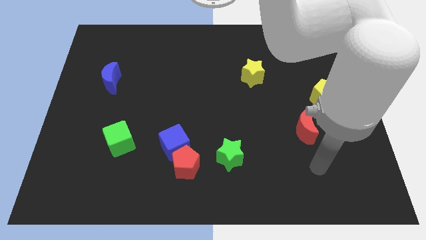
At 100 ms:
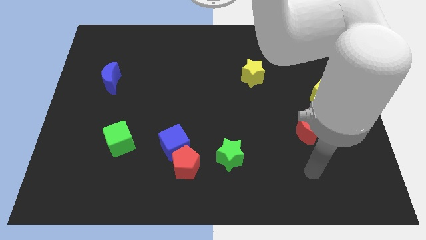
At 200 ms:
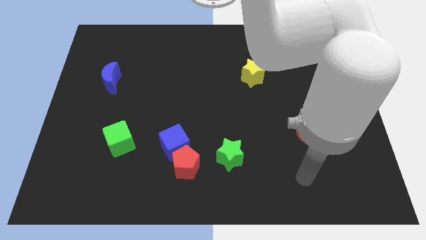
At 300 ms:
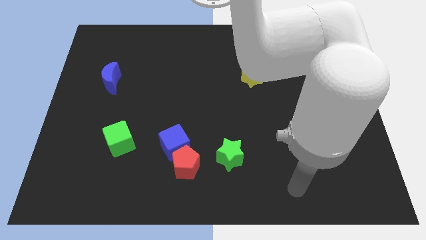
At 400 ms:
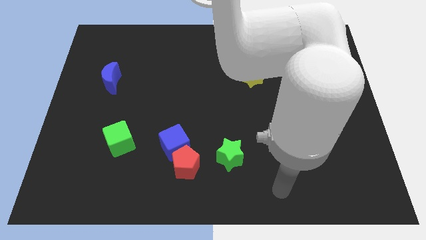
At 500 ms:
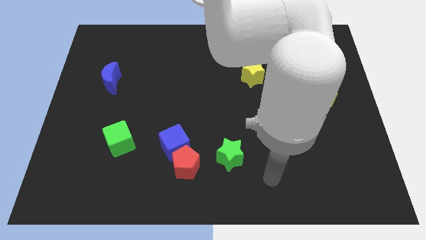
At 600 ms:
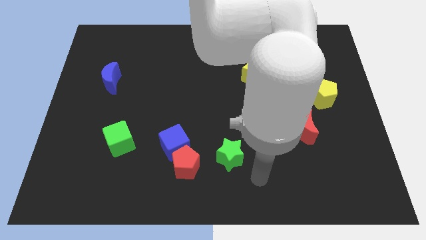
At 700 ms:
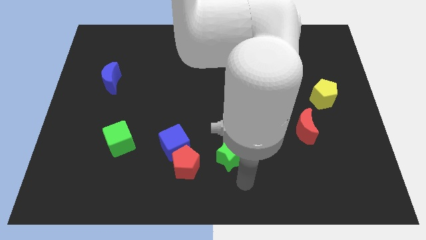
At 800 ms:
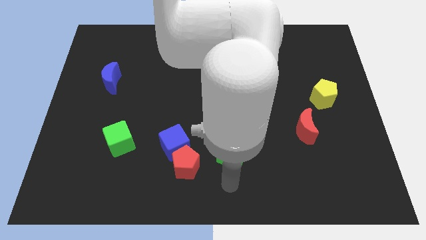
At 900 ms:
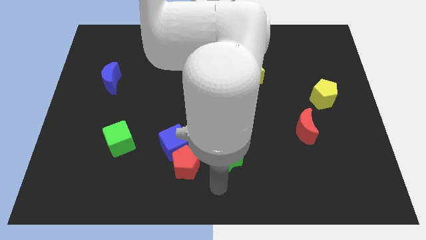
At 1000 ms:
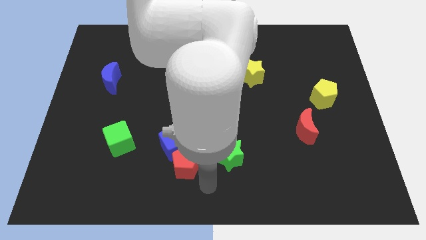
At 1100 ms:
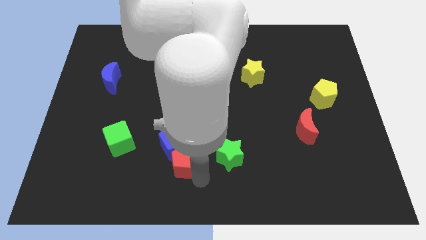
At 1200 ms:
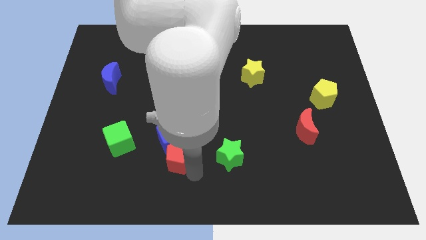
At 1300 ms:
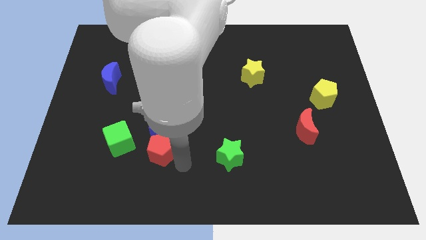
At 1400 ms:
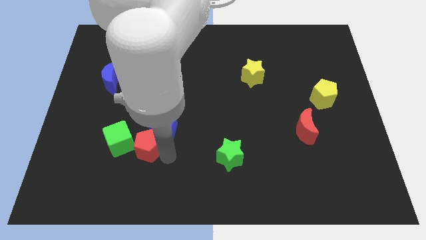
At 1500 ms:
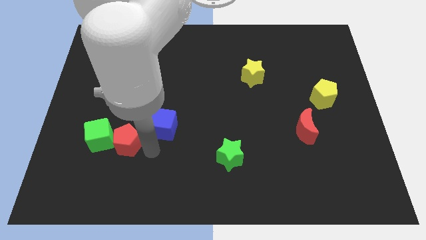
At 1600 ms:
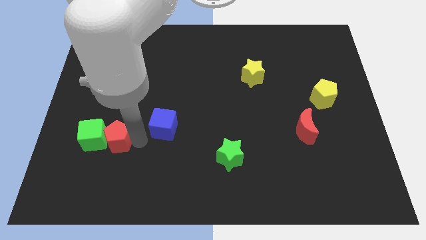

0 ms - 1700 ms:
pull the blue cube apart from the red pentagon

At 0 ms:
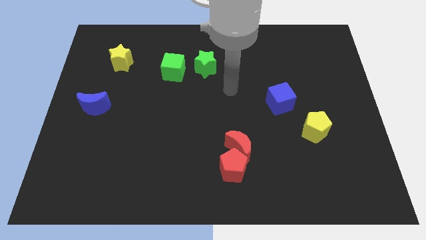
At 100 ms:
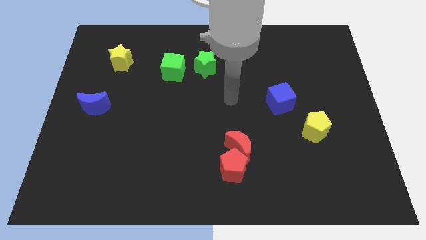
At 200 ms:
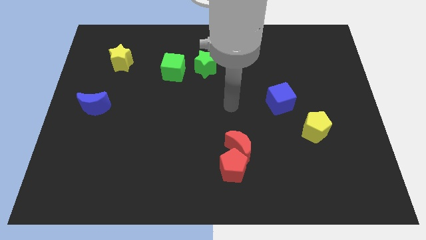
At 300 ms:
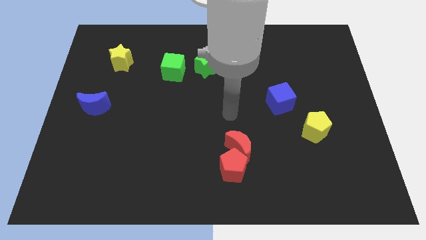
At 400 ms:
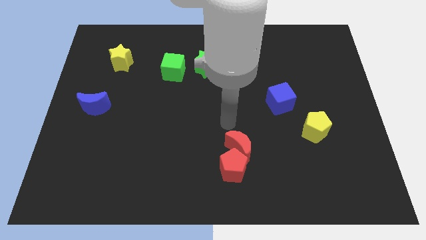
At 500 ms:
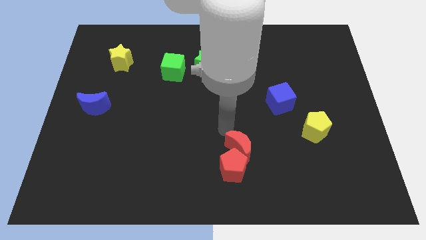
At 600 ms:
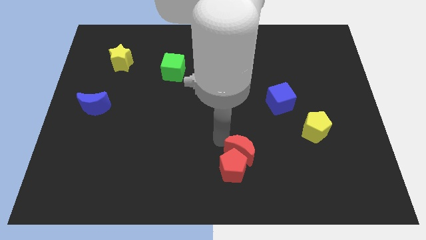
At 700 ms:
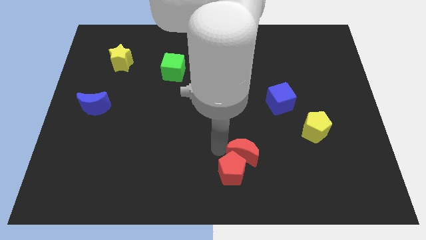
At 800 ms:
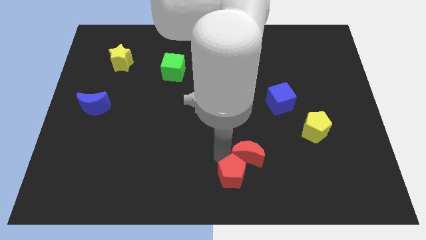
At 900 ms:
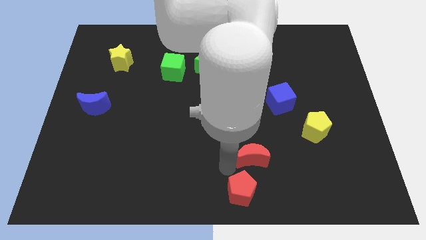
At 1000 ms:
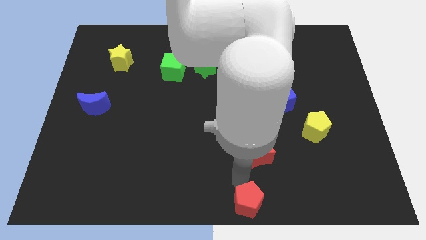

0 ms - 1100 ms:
move the red moon away from the red pentagon

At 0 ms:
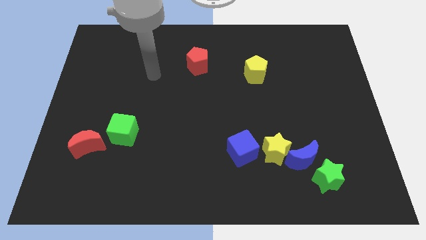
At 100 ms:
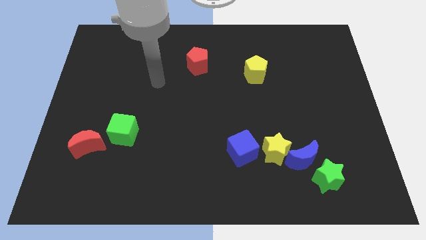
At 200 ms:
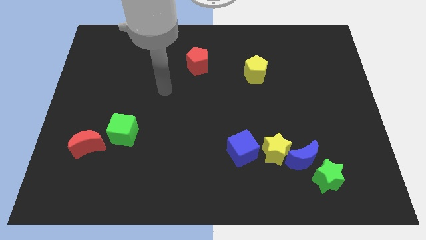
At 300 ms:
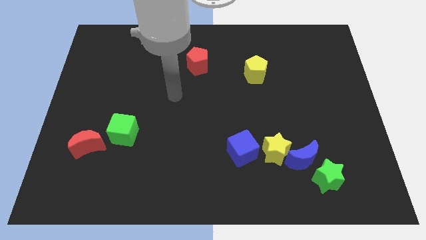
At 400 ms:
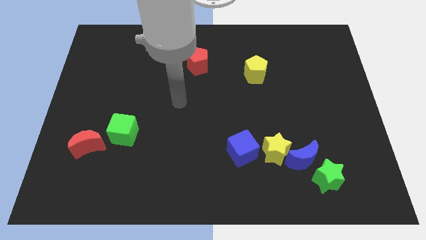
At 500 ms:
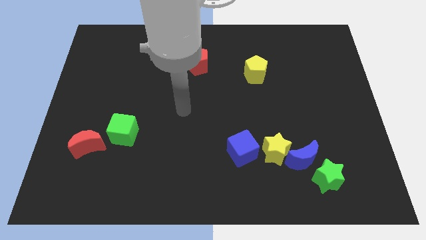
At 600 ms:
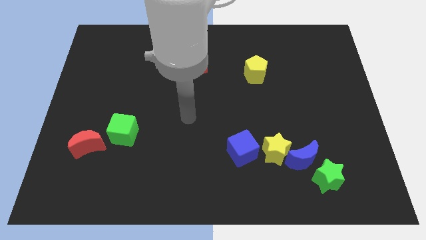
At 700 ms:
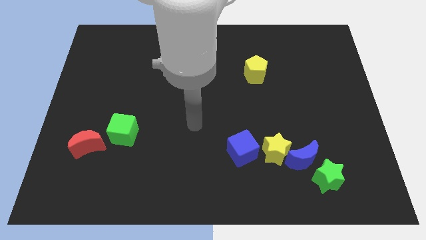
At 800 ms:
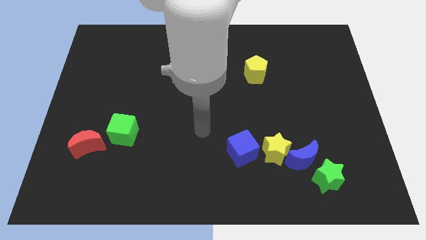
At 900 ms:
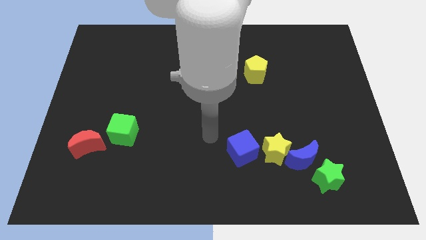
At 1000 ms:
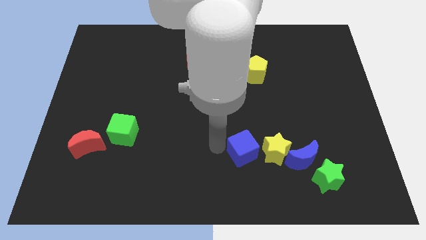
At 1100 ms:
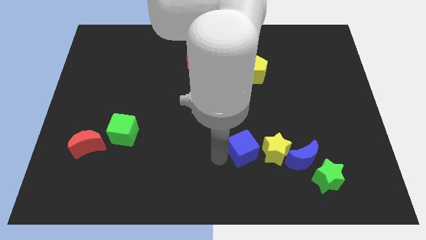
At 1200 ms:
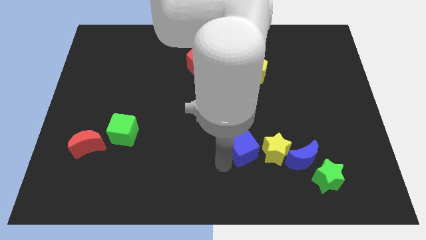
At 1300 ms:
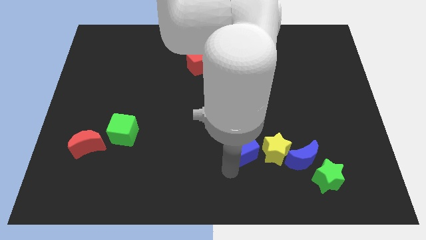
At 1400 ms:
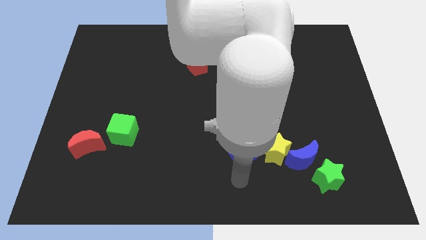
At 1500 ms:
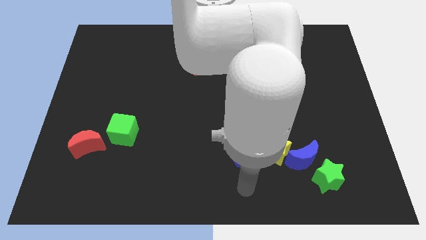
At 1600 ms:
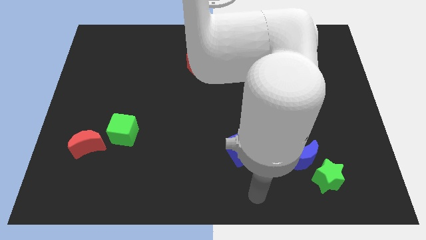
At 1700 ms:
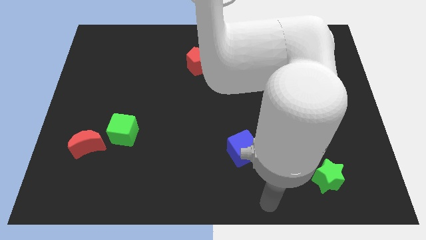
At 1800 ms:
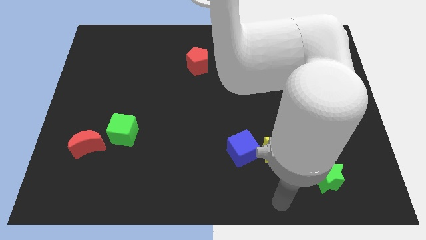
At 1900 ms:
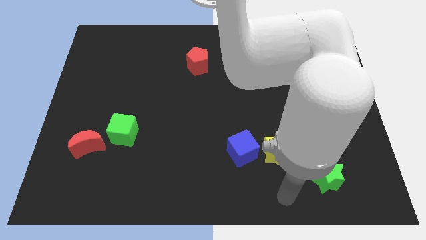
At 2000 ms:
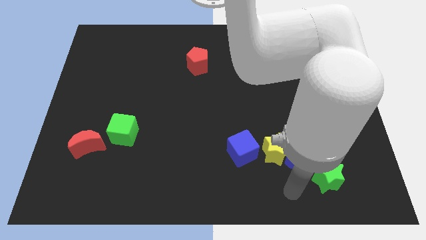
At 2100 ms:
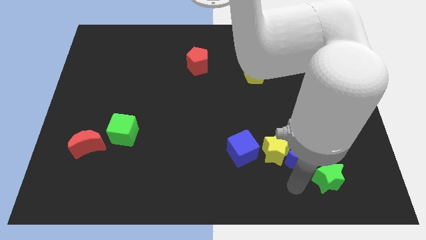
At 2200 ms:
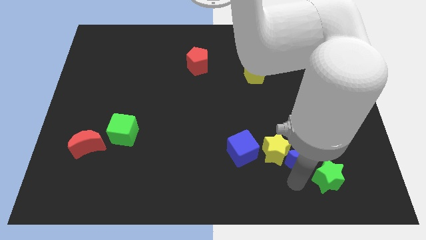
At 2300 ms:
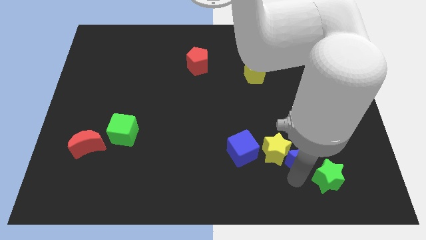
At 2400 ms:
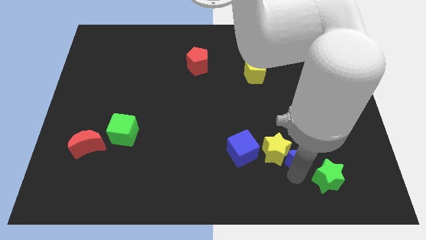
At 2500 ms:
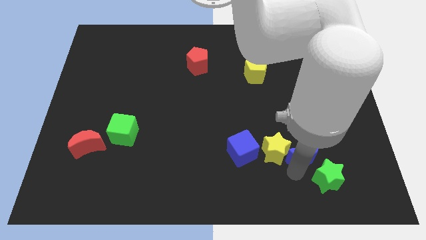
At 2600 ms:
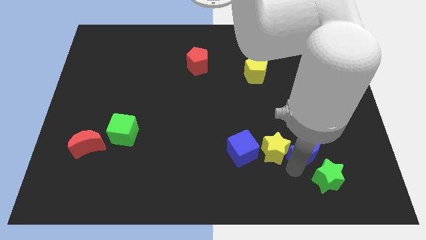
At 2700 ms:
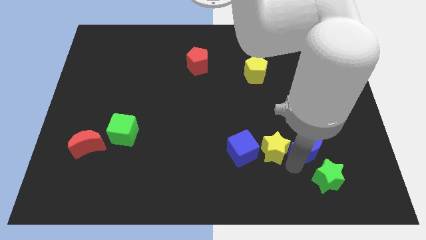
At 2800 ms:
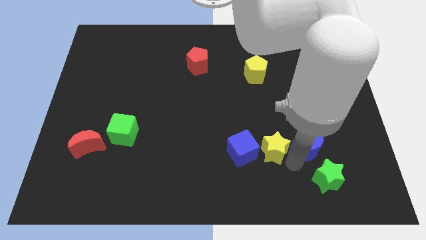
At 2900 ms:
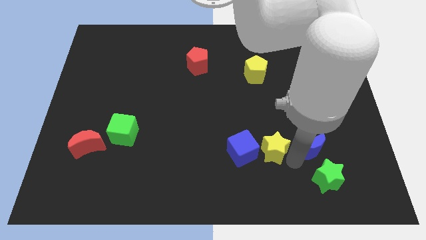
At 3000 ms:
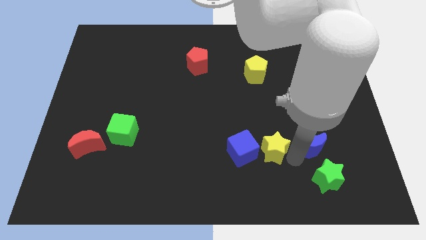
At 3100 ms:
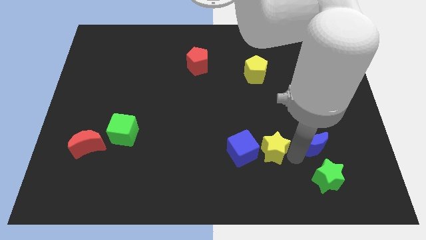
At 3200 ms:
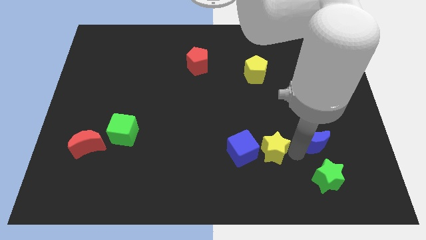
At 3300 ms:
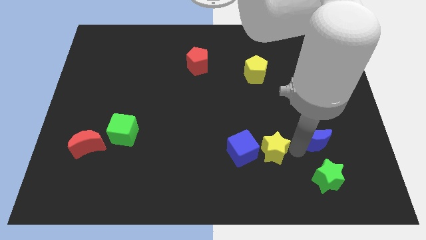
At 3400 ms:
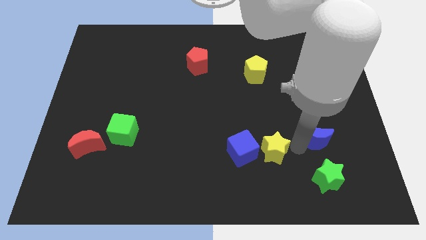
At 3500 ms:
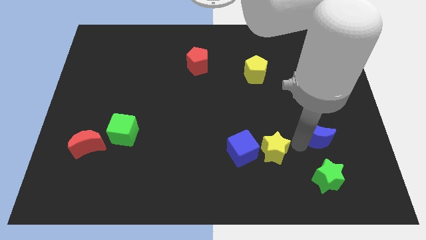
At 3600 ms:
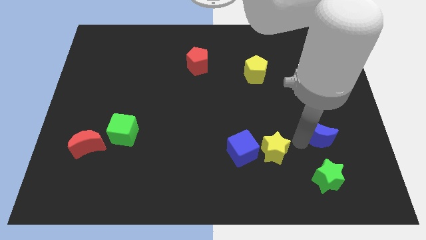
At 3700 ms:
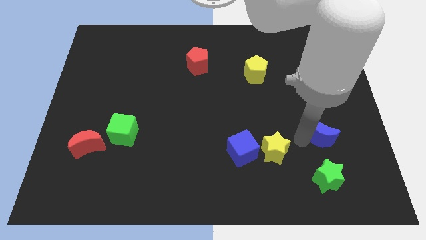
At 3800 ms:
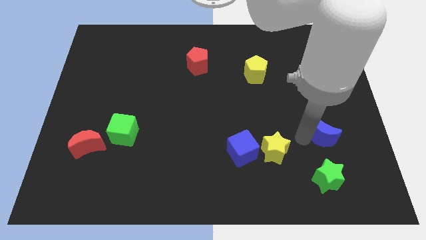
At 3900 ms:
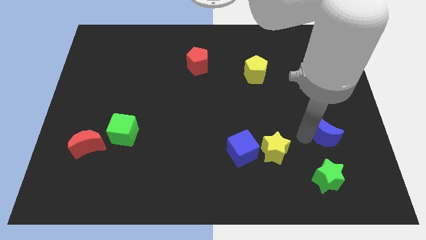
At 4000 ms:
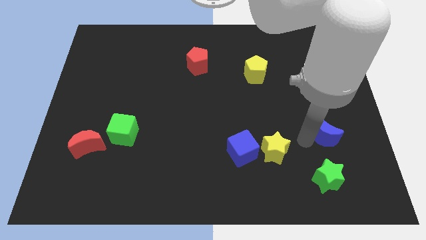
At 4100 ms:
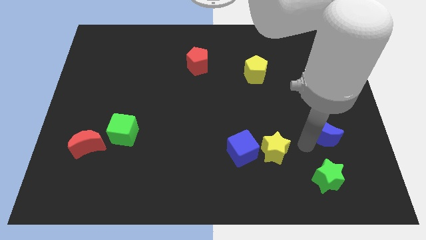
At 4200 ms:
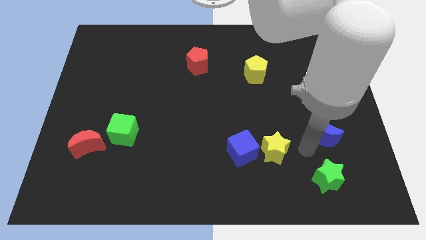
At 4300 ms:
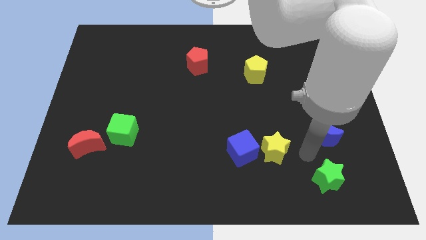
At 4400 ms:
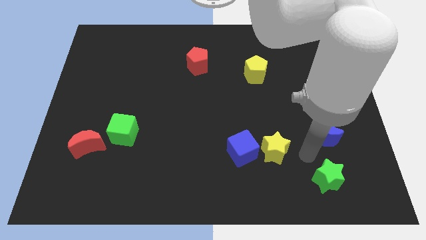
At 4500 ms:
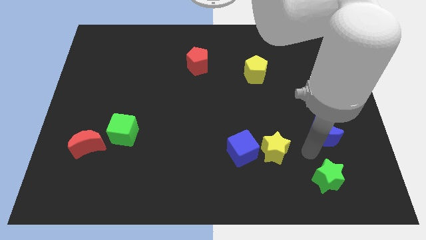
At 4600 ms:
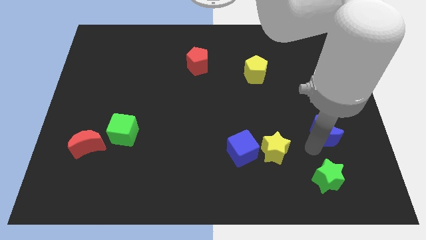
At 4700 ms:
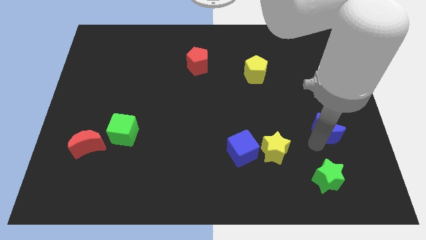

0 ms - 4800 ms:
move the blue moon away from the yellow star and green star

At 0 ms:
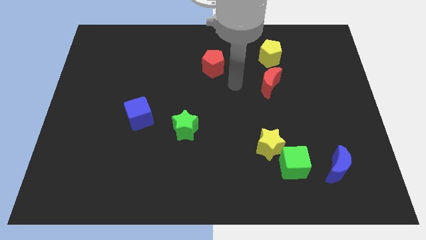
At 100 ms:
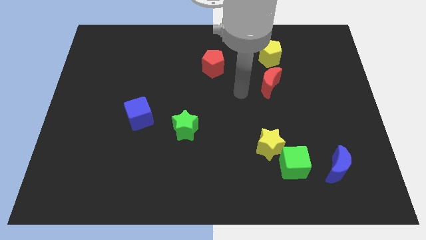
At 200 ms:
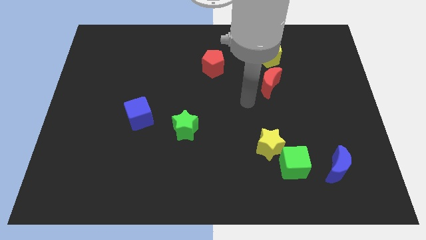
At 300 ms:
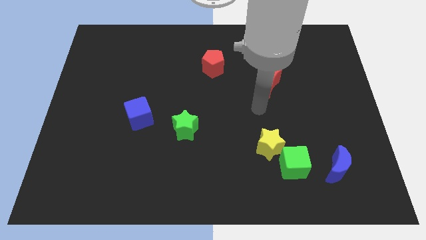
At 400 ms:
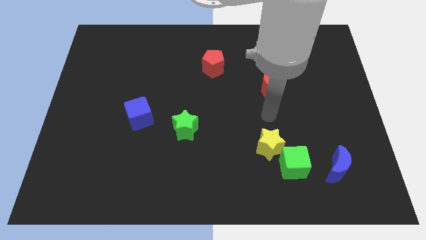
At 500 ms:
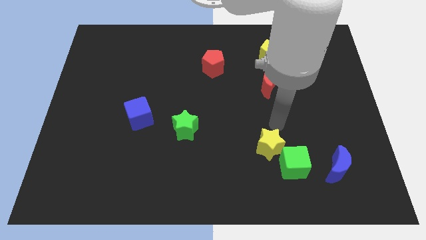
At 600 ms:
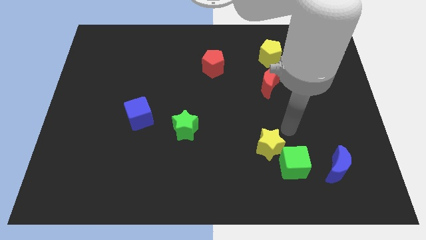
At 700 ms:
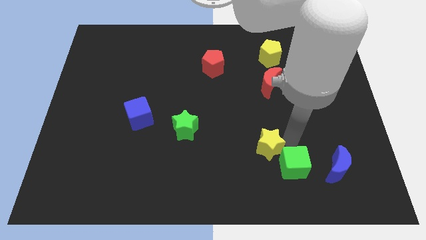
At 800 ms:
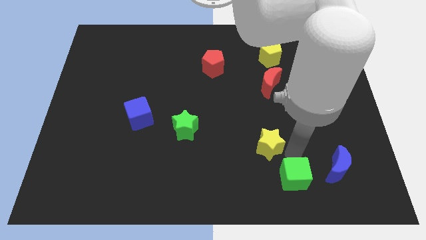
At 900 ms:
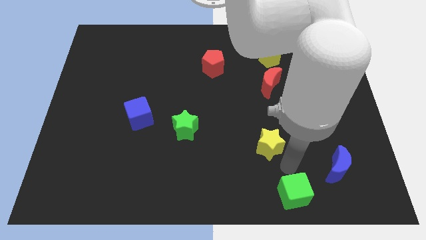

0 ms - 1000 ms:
separate the yellow star from the green cube

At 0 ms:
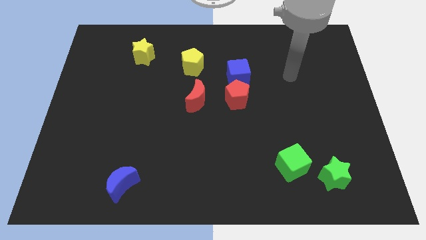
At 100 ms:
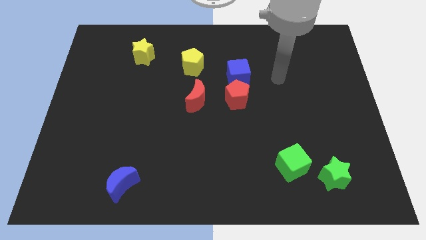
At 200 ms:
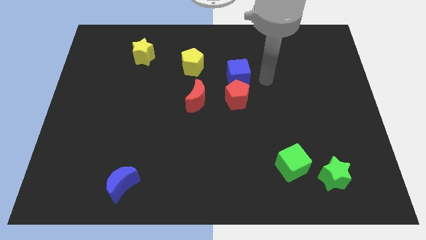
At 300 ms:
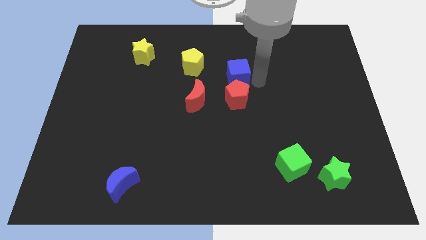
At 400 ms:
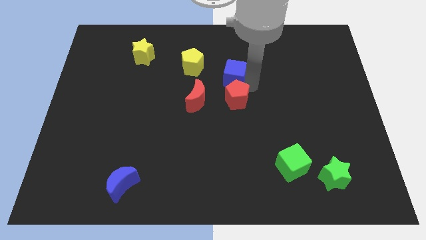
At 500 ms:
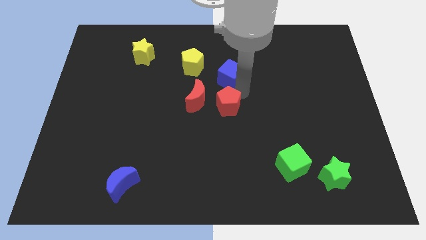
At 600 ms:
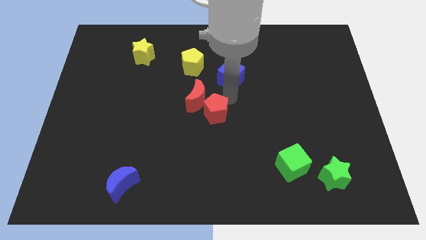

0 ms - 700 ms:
separate the blue cube from the red pentagon

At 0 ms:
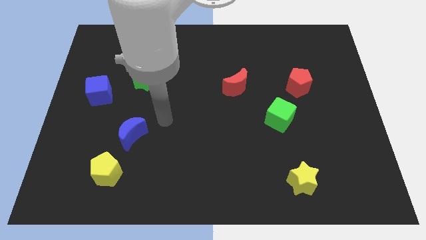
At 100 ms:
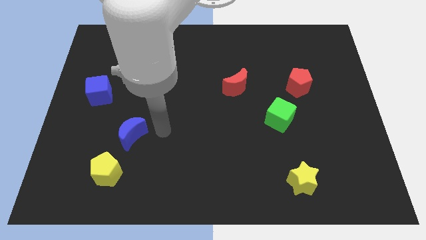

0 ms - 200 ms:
pull the blue moon apart from the yellow pentagon
